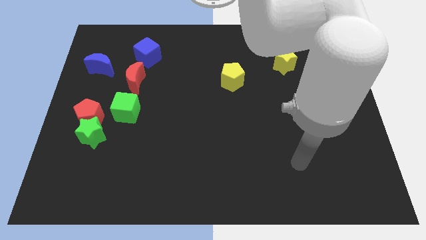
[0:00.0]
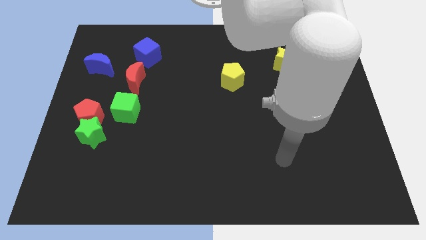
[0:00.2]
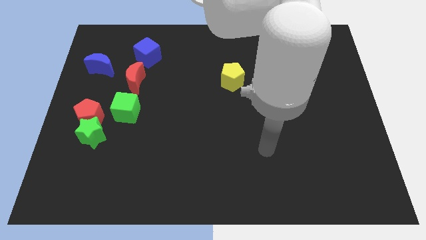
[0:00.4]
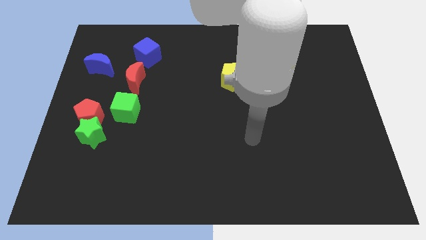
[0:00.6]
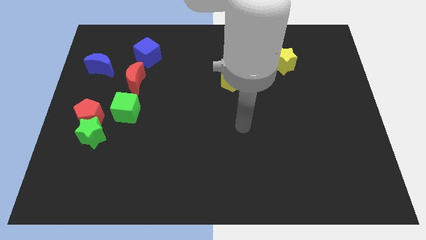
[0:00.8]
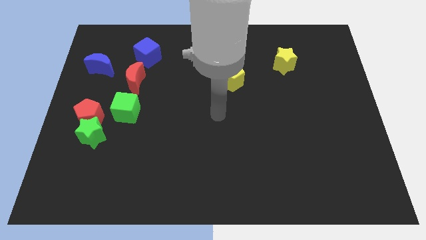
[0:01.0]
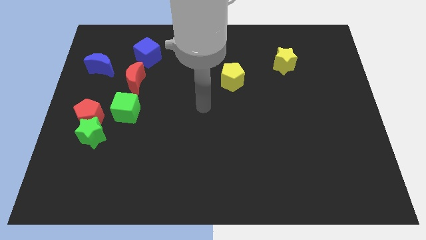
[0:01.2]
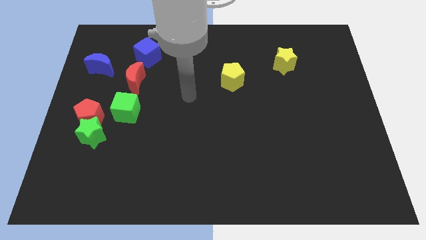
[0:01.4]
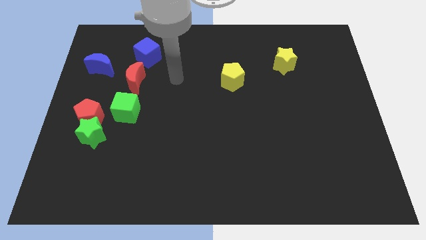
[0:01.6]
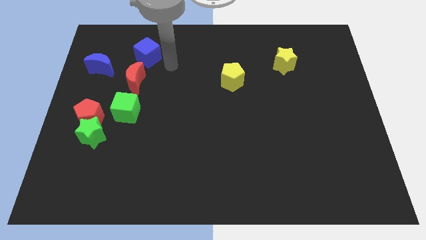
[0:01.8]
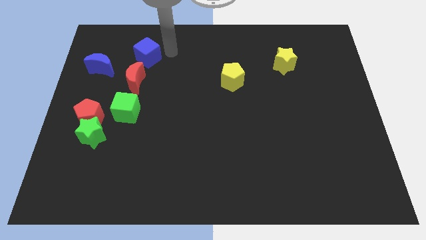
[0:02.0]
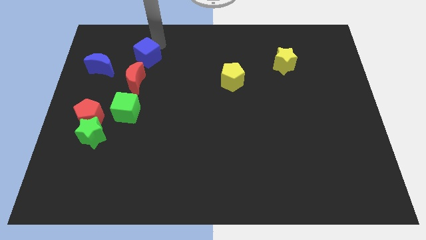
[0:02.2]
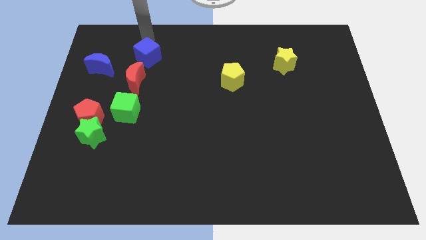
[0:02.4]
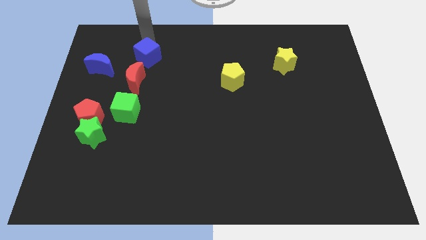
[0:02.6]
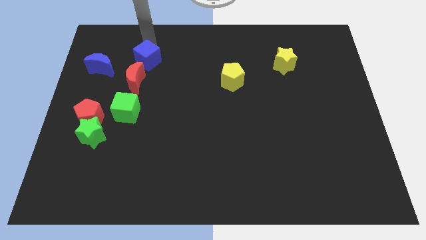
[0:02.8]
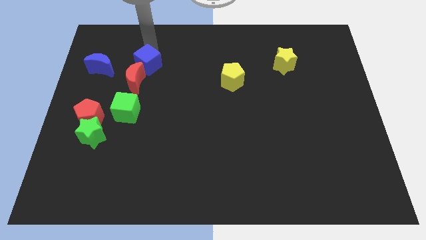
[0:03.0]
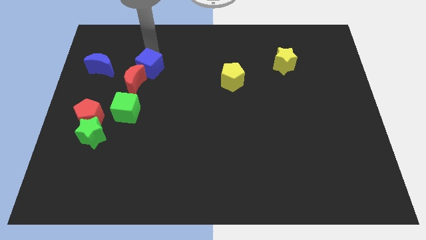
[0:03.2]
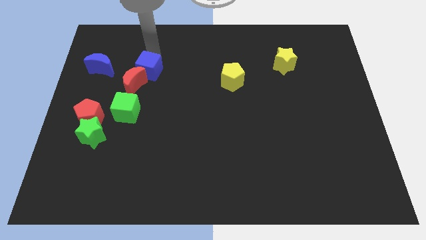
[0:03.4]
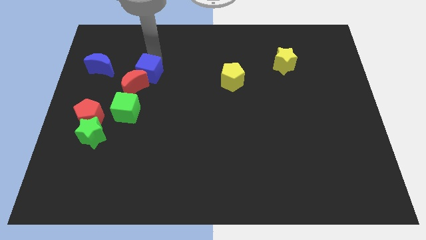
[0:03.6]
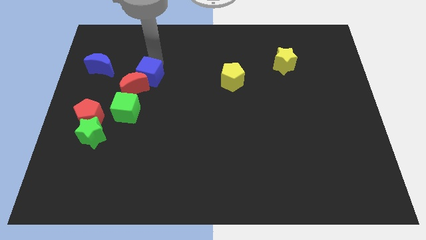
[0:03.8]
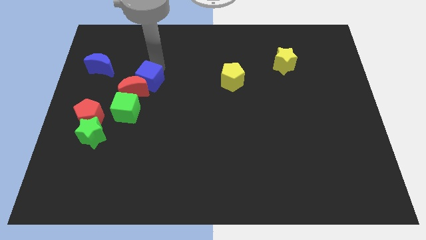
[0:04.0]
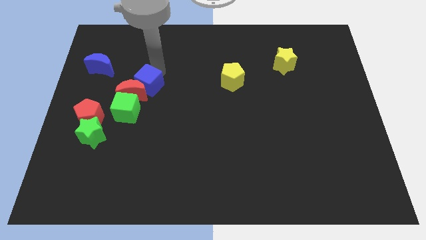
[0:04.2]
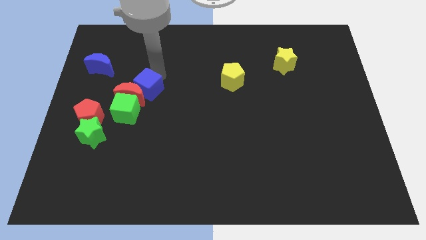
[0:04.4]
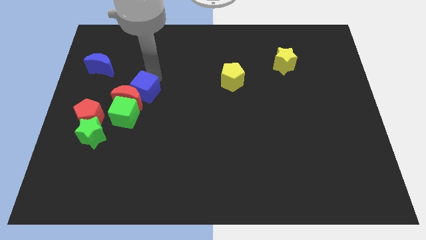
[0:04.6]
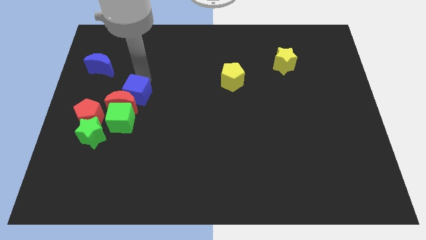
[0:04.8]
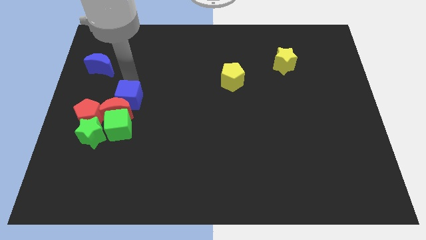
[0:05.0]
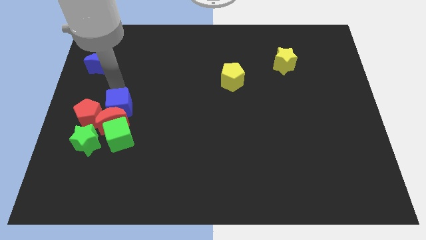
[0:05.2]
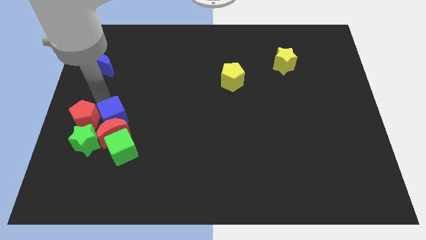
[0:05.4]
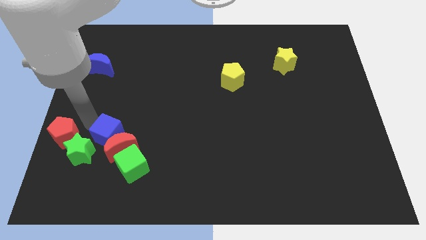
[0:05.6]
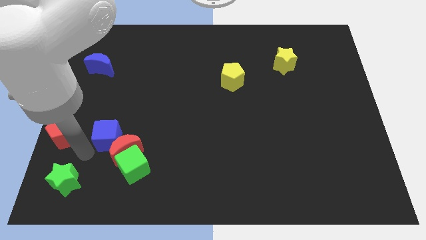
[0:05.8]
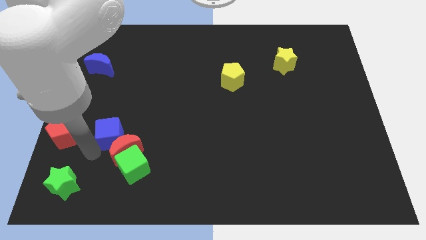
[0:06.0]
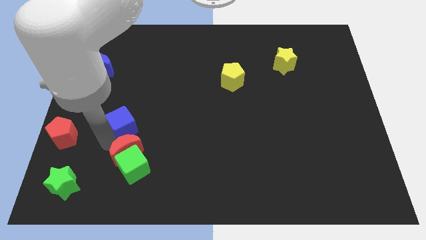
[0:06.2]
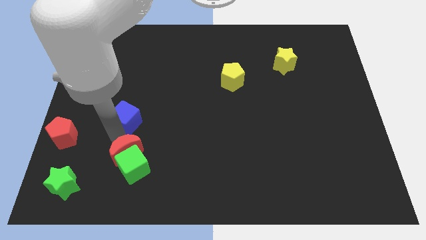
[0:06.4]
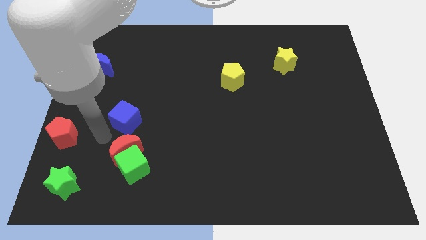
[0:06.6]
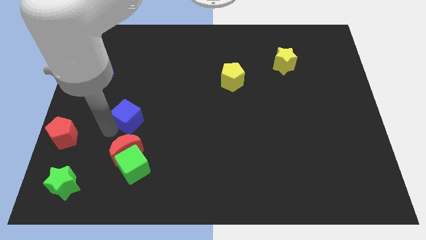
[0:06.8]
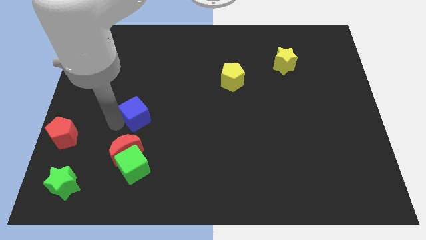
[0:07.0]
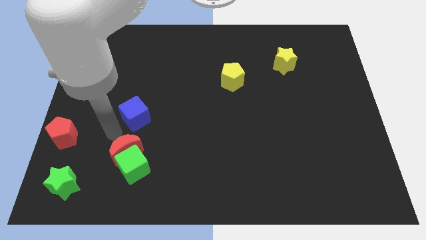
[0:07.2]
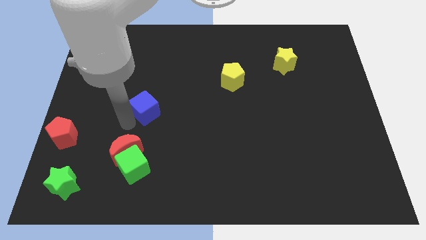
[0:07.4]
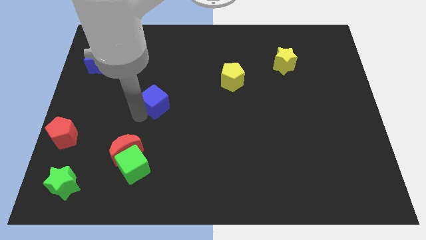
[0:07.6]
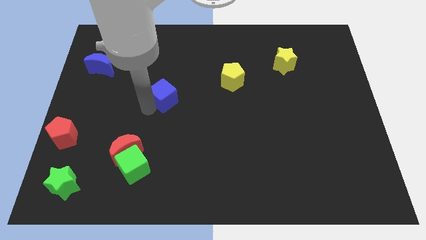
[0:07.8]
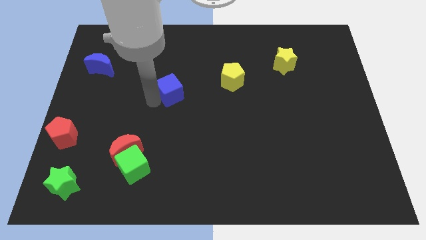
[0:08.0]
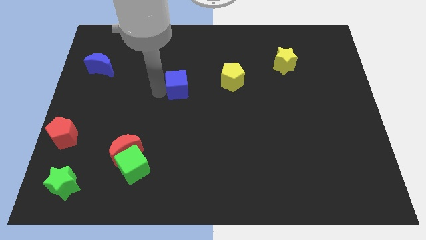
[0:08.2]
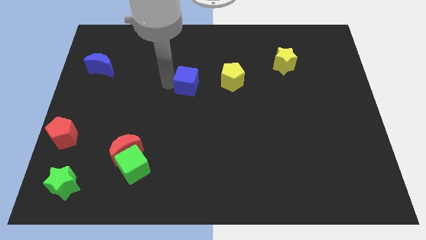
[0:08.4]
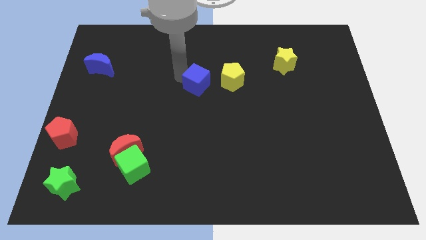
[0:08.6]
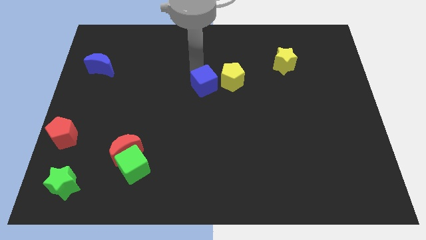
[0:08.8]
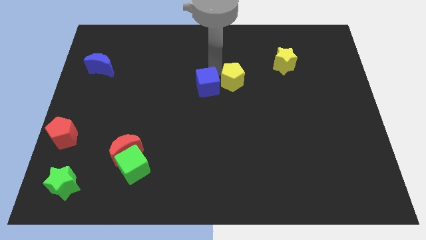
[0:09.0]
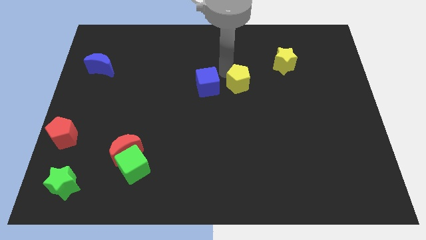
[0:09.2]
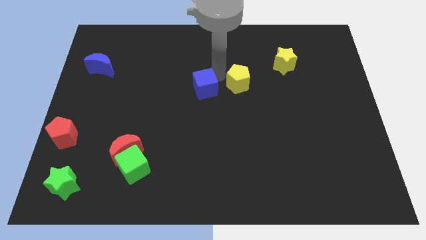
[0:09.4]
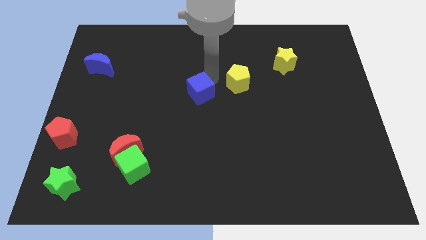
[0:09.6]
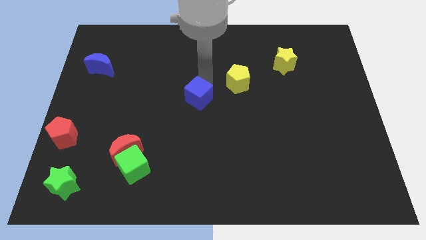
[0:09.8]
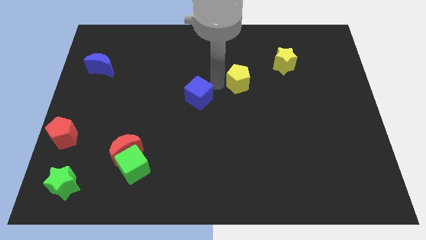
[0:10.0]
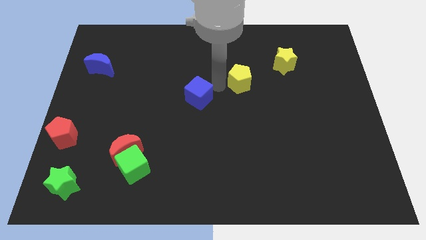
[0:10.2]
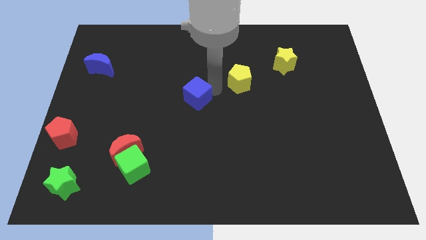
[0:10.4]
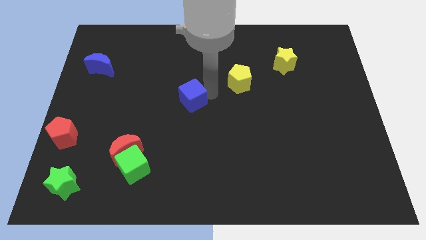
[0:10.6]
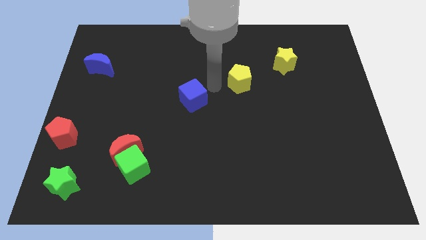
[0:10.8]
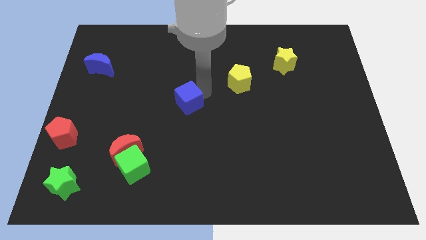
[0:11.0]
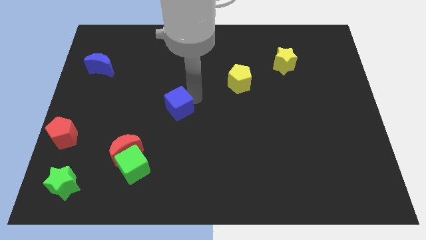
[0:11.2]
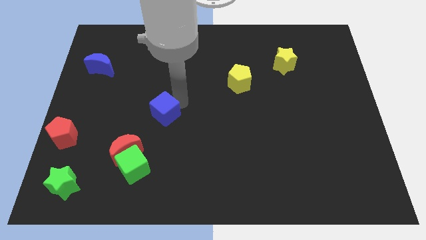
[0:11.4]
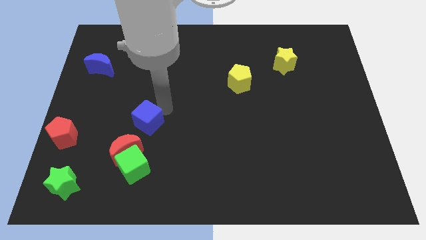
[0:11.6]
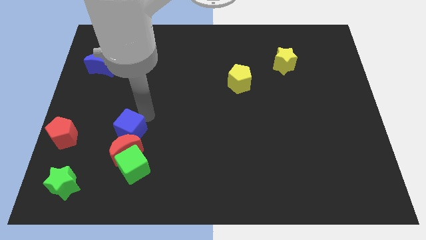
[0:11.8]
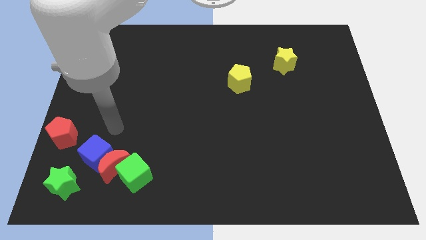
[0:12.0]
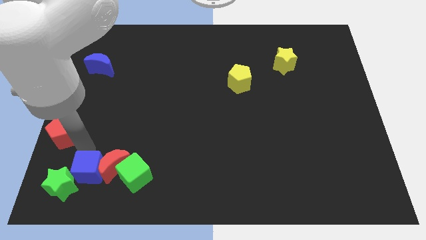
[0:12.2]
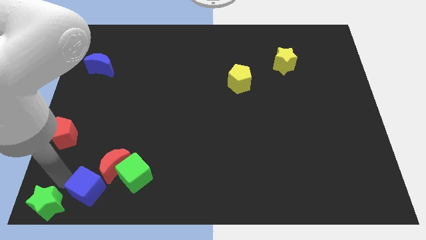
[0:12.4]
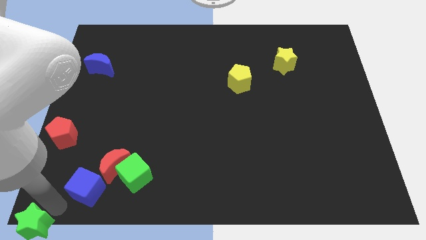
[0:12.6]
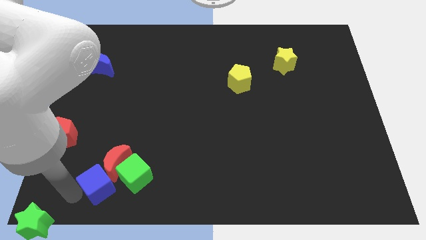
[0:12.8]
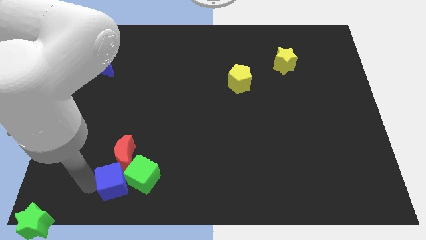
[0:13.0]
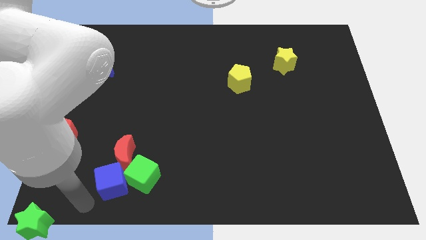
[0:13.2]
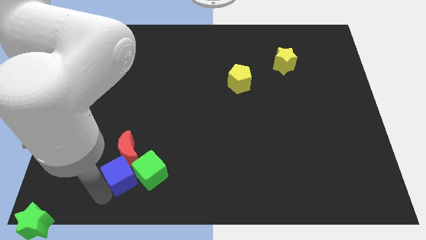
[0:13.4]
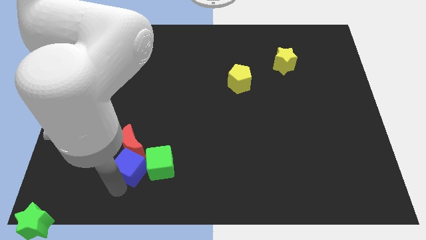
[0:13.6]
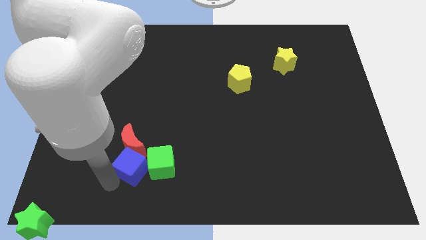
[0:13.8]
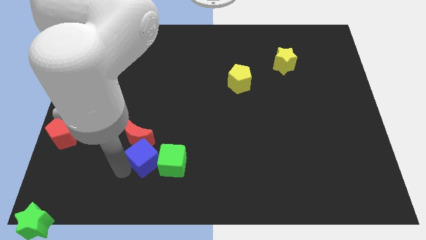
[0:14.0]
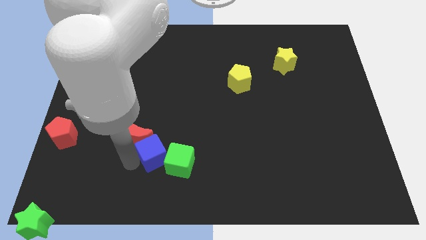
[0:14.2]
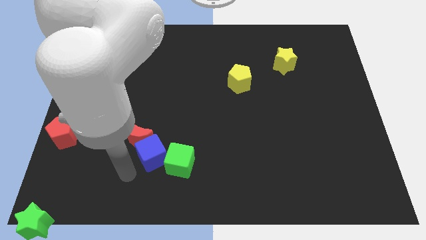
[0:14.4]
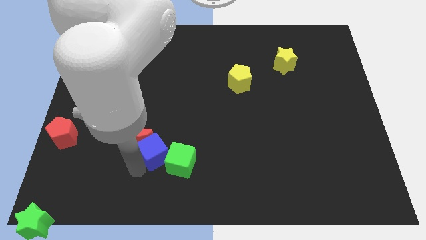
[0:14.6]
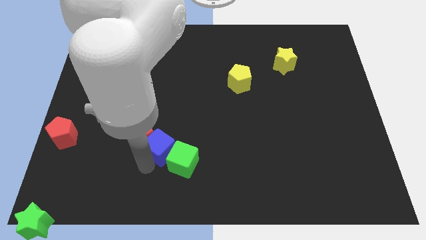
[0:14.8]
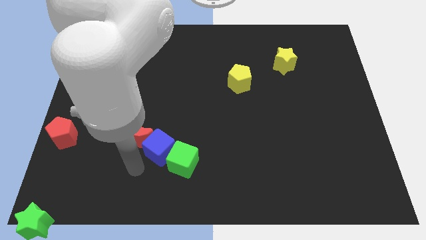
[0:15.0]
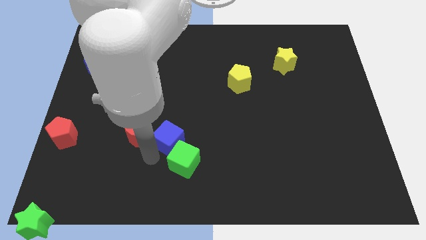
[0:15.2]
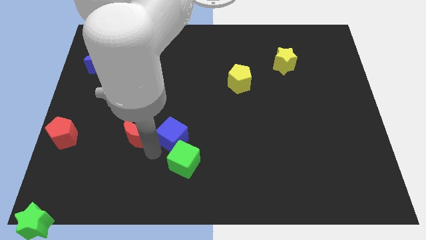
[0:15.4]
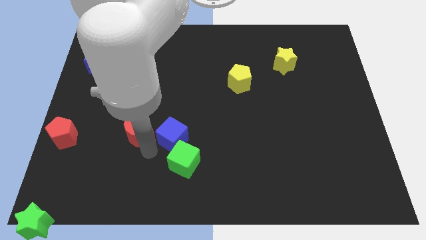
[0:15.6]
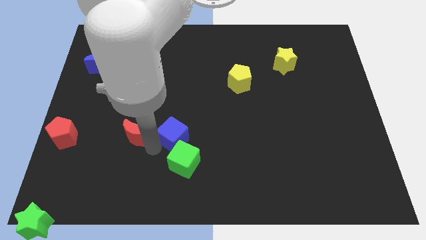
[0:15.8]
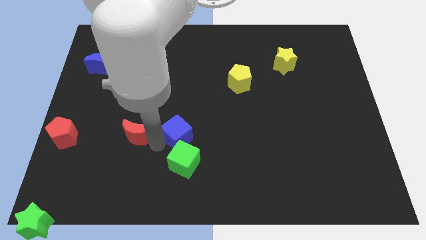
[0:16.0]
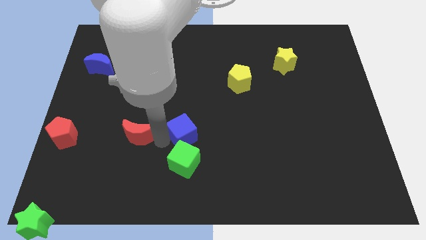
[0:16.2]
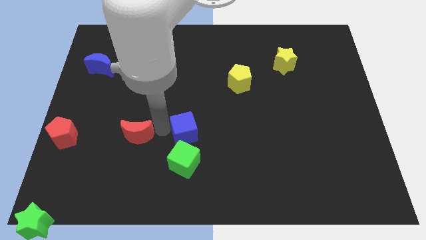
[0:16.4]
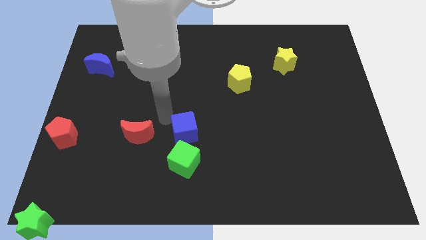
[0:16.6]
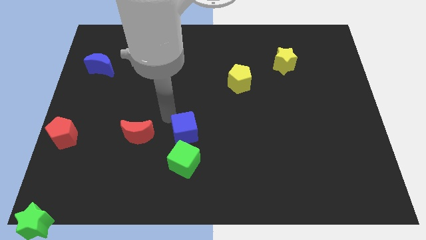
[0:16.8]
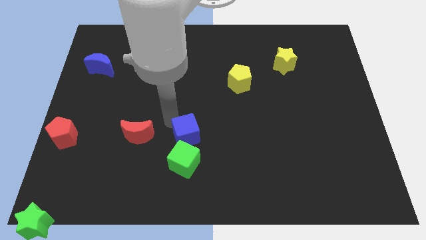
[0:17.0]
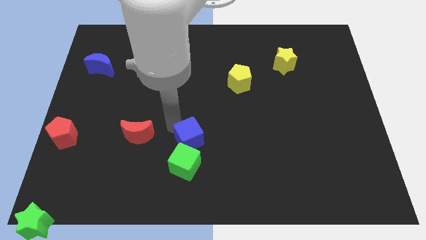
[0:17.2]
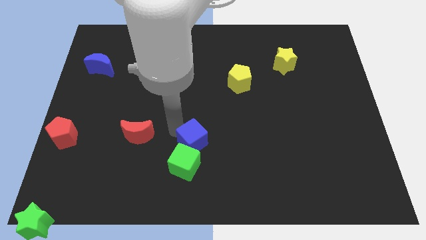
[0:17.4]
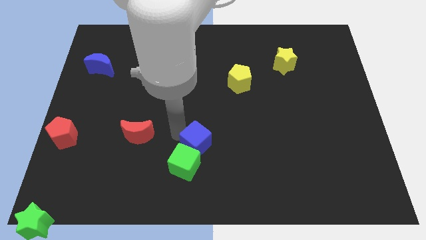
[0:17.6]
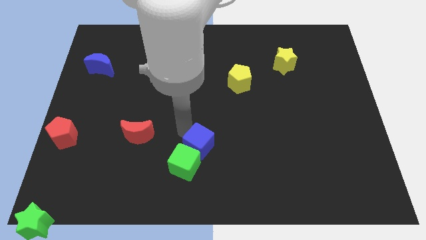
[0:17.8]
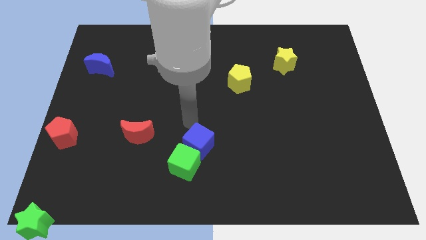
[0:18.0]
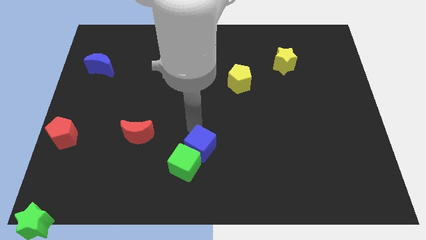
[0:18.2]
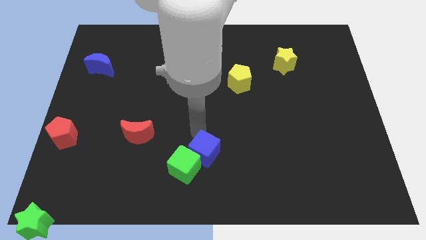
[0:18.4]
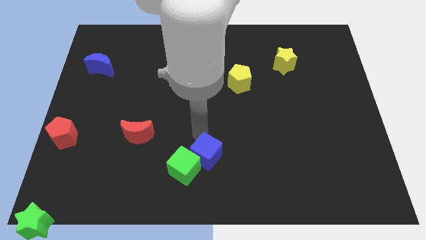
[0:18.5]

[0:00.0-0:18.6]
move the blue cube to the bottom
